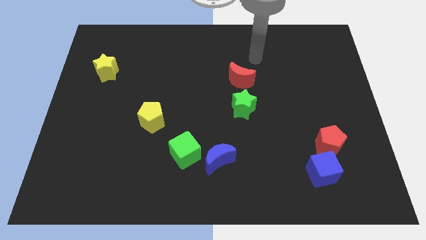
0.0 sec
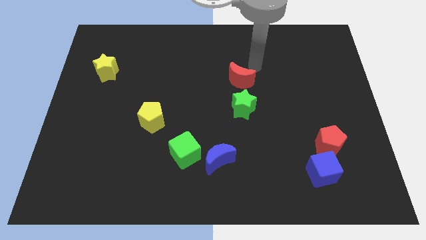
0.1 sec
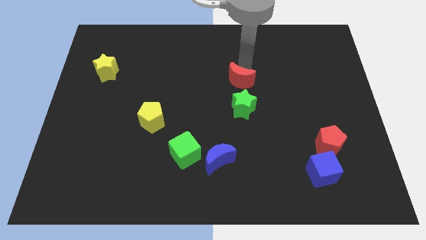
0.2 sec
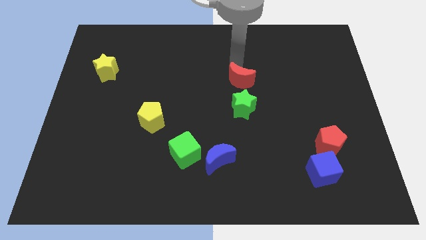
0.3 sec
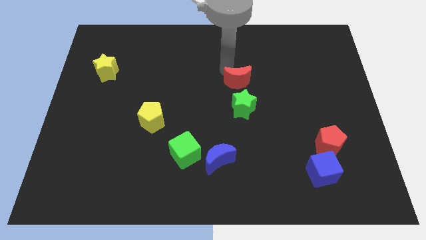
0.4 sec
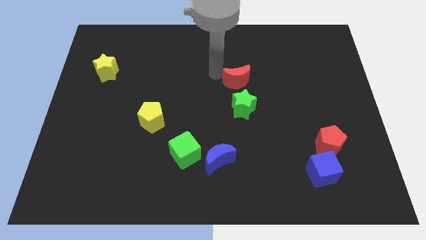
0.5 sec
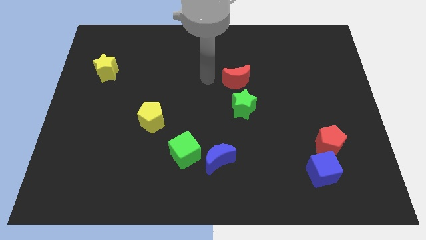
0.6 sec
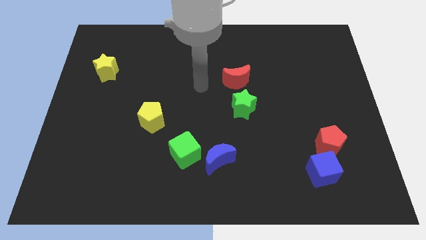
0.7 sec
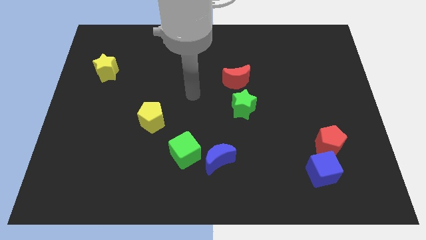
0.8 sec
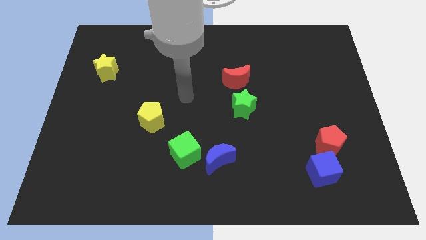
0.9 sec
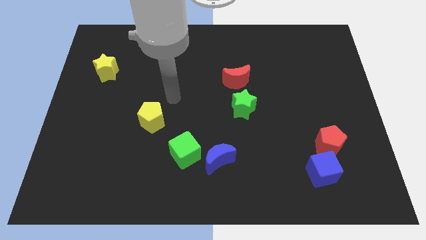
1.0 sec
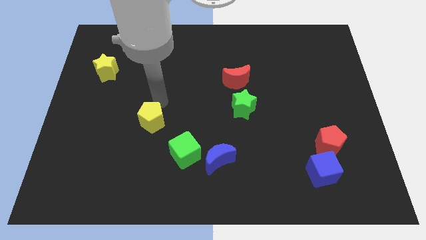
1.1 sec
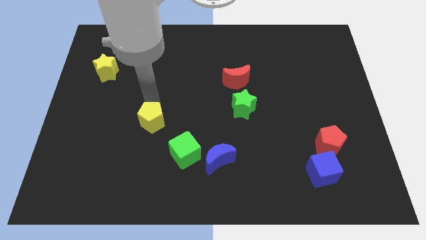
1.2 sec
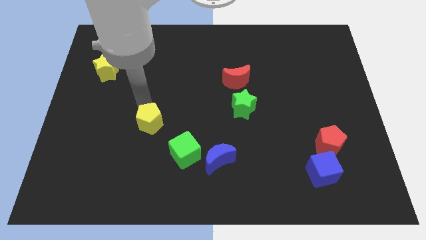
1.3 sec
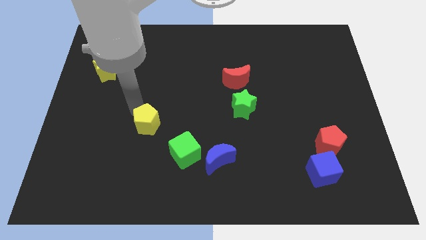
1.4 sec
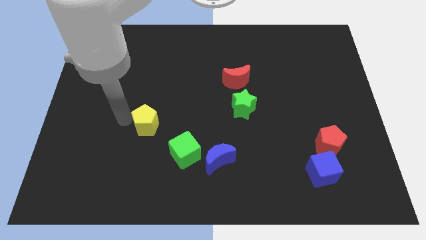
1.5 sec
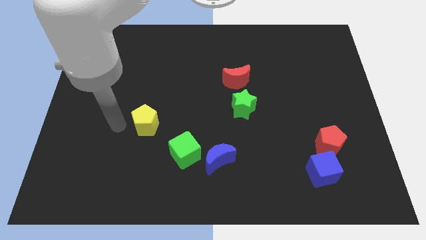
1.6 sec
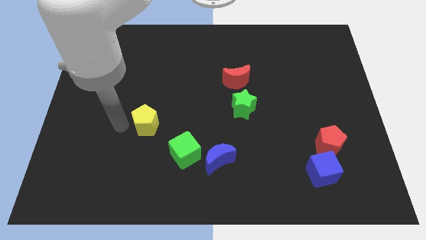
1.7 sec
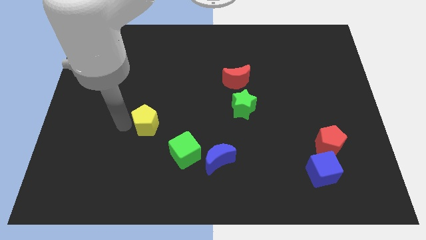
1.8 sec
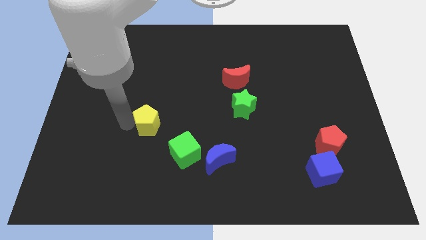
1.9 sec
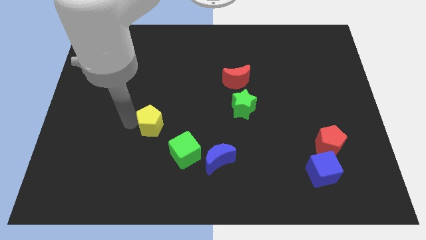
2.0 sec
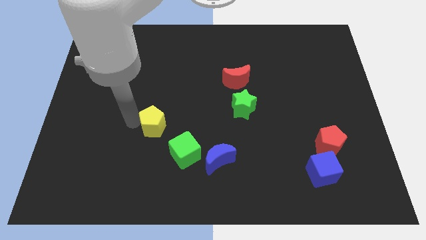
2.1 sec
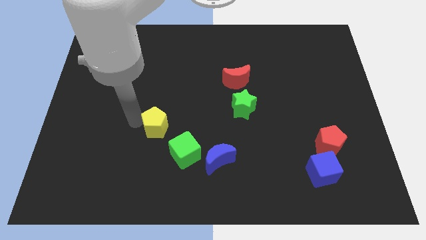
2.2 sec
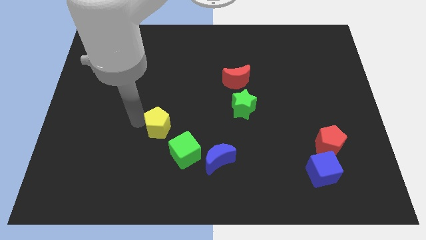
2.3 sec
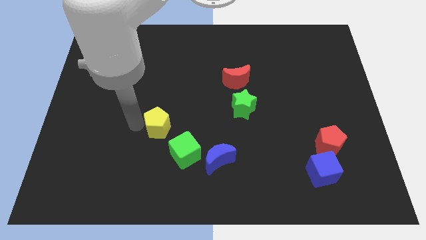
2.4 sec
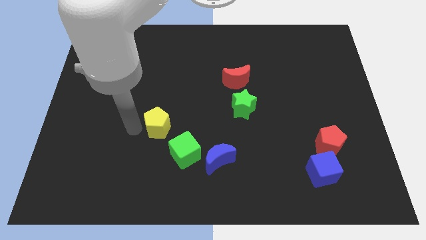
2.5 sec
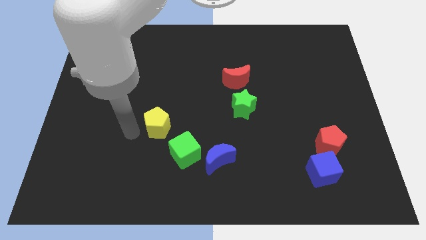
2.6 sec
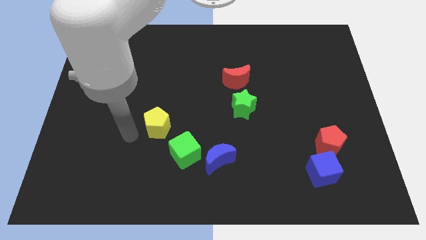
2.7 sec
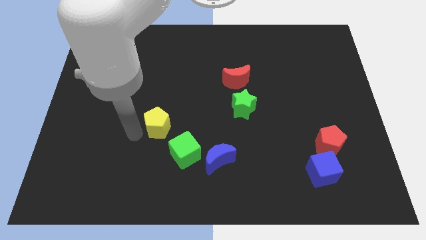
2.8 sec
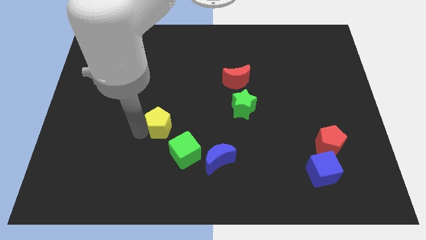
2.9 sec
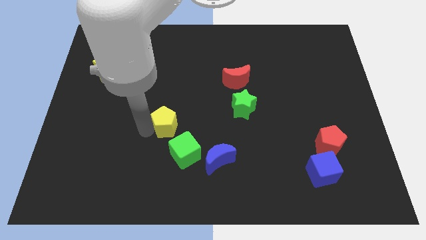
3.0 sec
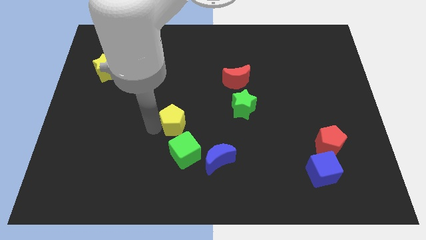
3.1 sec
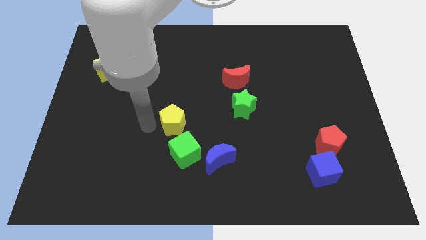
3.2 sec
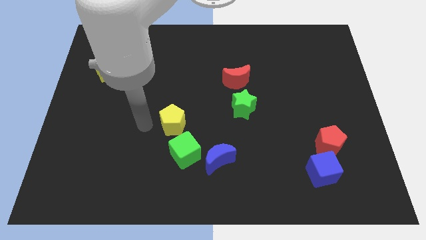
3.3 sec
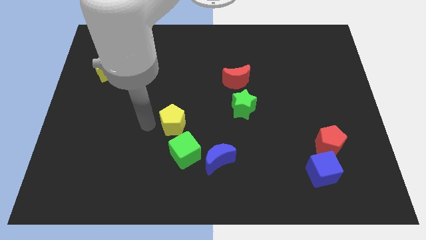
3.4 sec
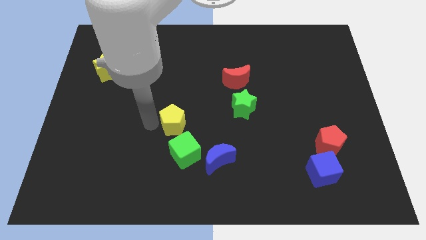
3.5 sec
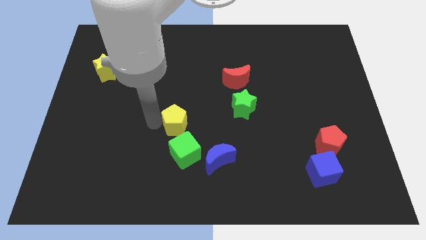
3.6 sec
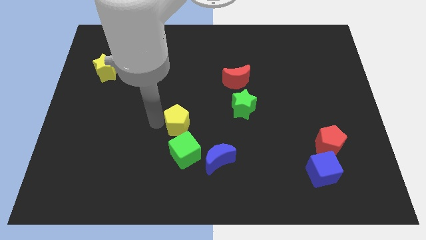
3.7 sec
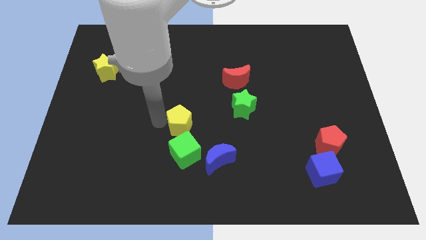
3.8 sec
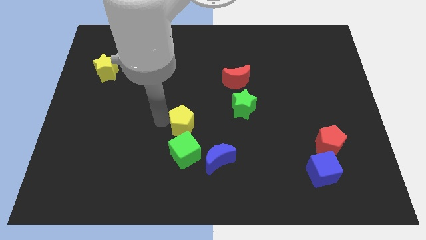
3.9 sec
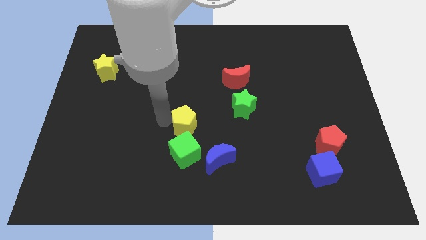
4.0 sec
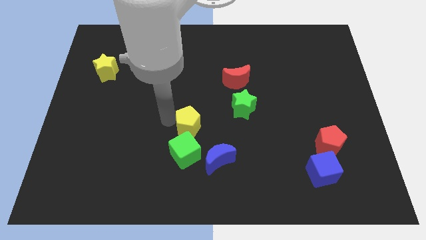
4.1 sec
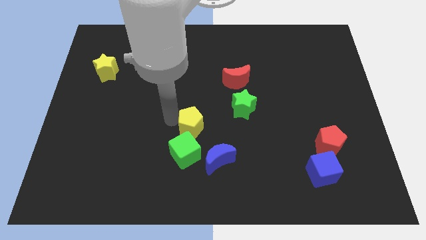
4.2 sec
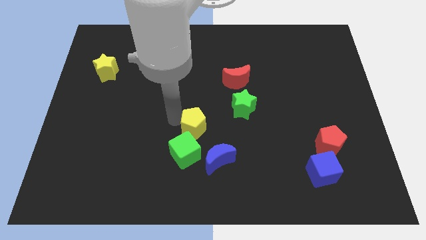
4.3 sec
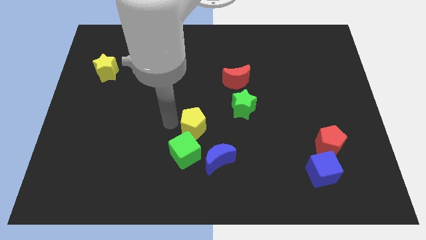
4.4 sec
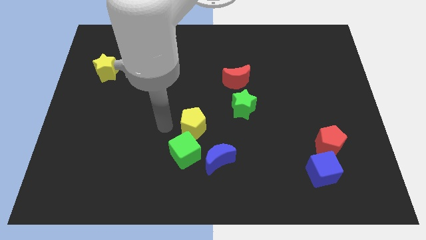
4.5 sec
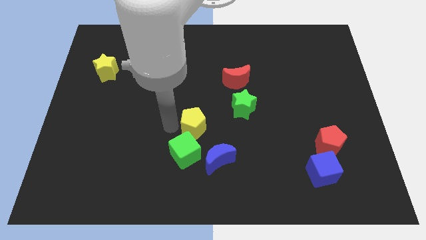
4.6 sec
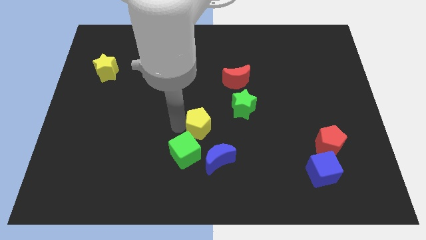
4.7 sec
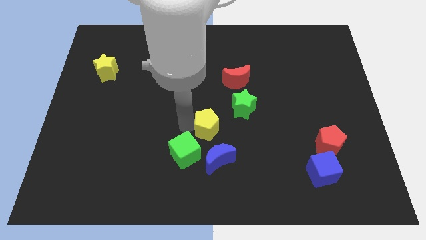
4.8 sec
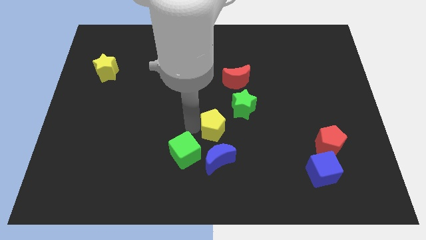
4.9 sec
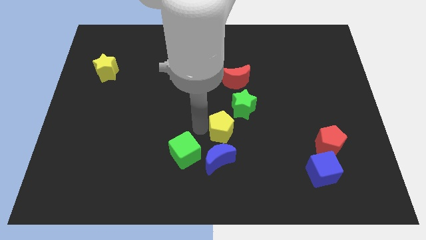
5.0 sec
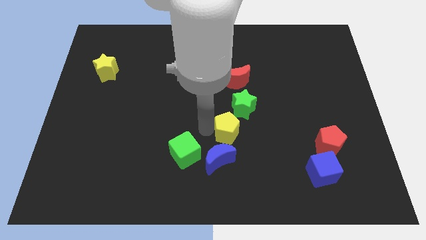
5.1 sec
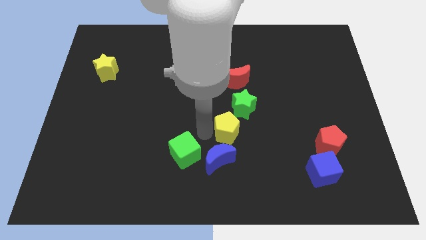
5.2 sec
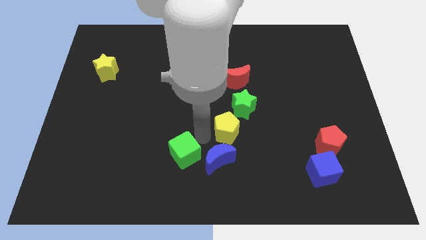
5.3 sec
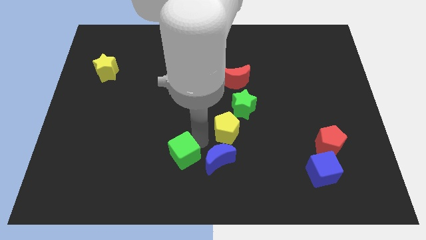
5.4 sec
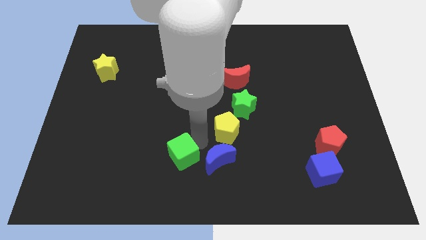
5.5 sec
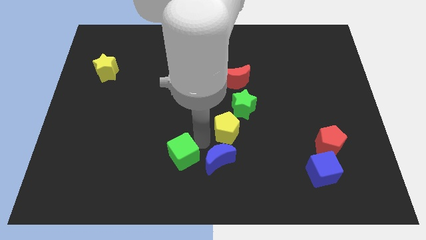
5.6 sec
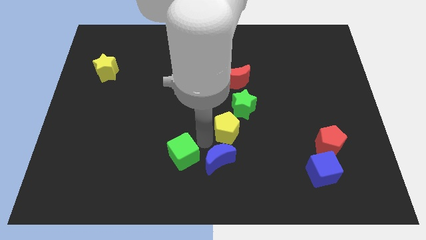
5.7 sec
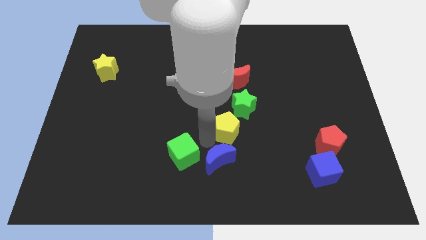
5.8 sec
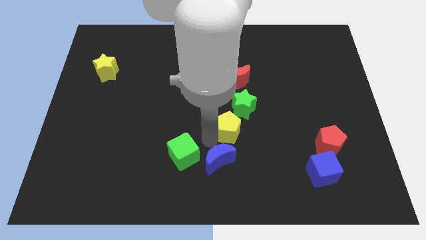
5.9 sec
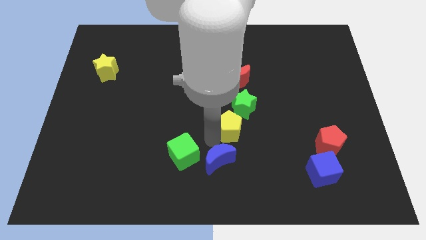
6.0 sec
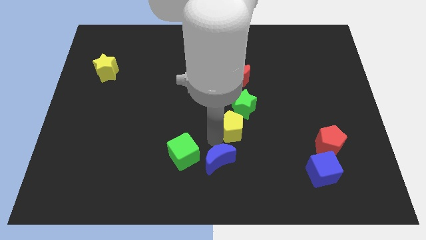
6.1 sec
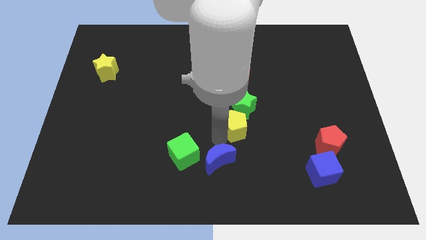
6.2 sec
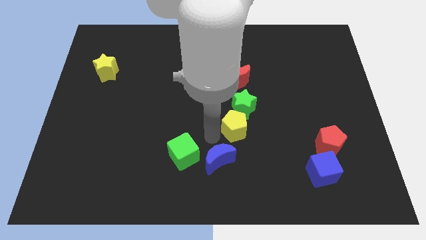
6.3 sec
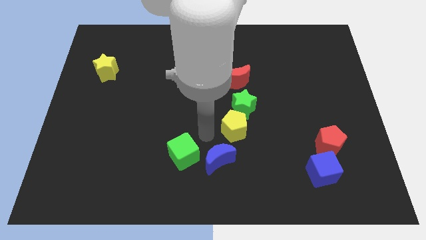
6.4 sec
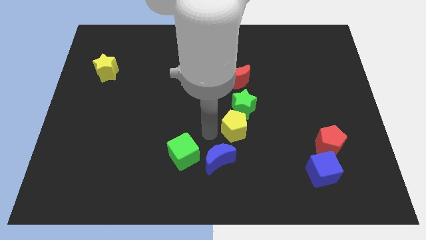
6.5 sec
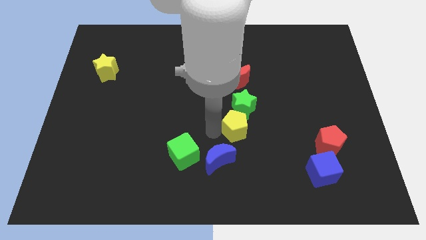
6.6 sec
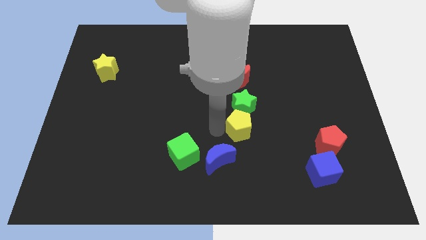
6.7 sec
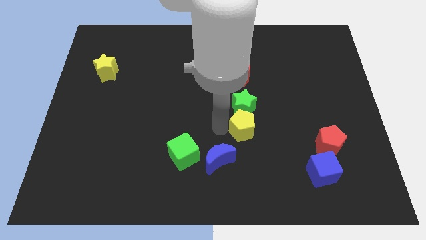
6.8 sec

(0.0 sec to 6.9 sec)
slide the yellow pentagon to the right

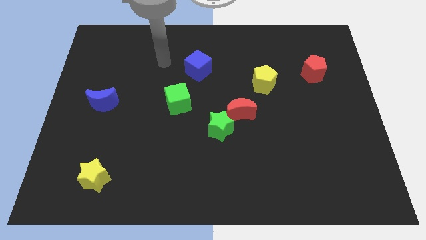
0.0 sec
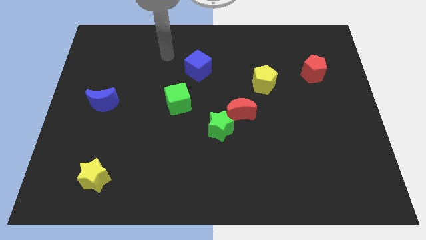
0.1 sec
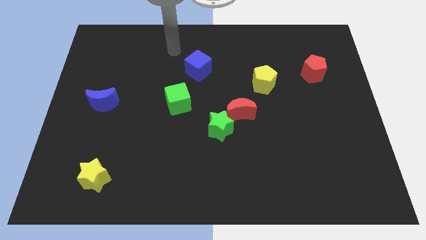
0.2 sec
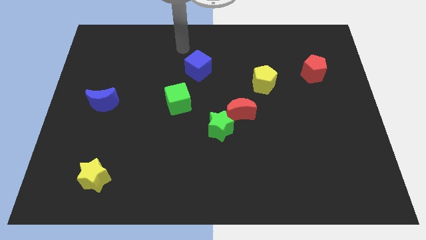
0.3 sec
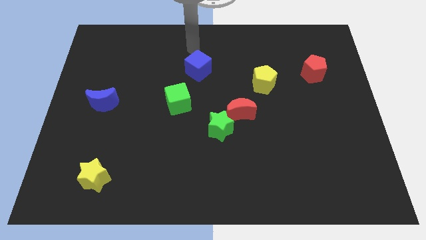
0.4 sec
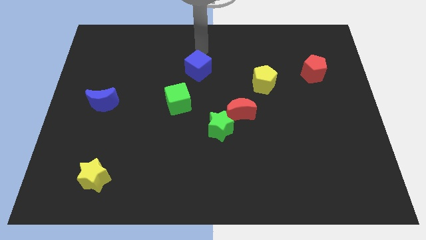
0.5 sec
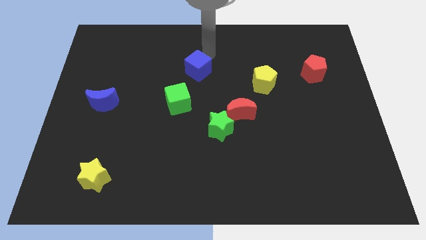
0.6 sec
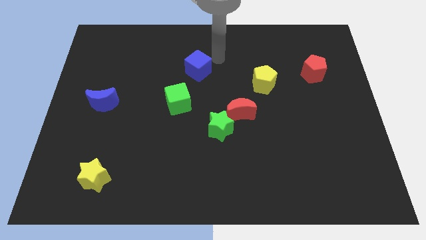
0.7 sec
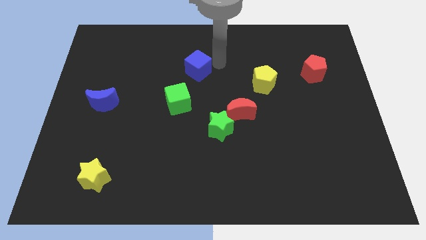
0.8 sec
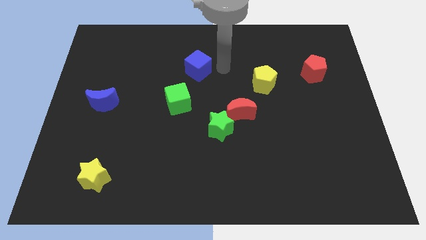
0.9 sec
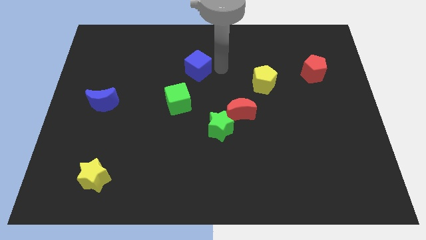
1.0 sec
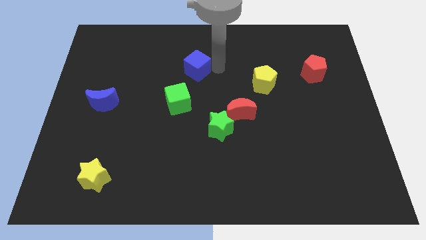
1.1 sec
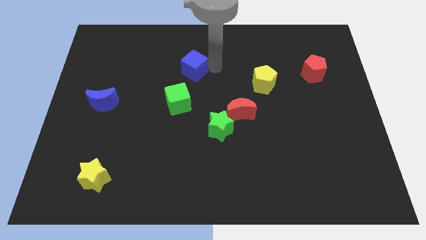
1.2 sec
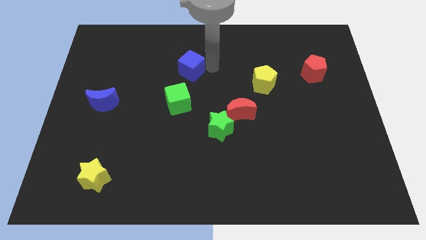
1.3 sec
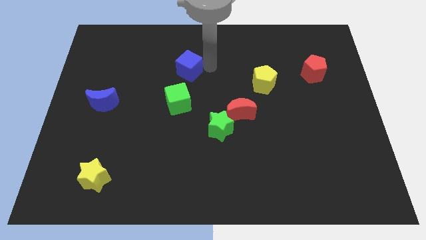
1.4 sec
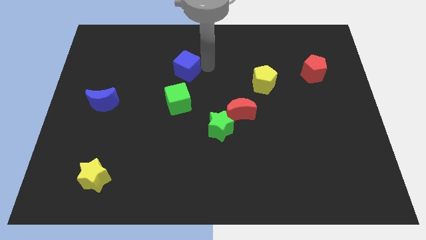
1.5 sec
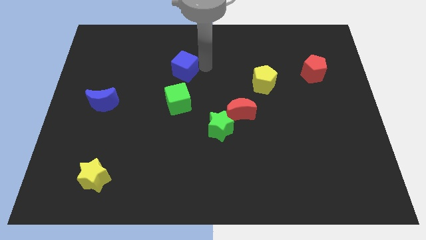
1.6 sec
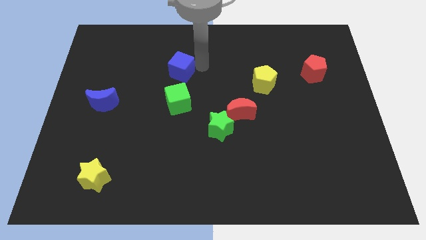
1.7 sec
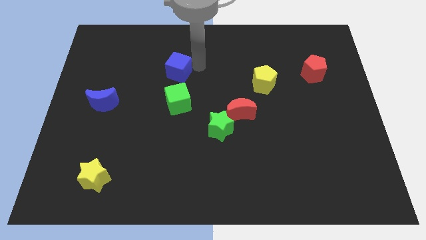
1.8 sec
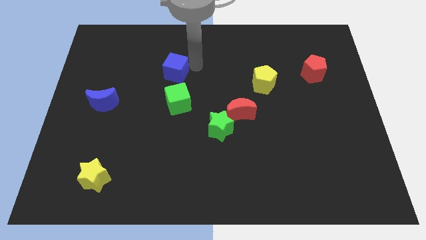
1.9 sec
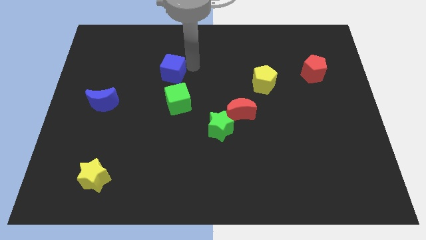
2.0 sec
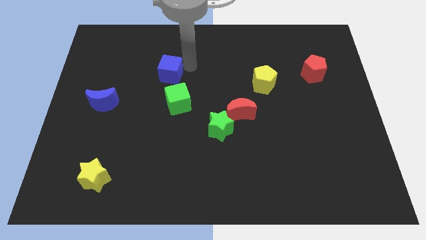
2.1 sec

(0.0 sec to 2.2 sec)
move the blue cube to the left slightly
